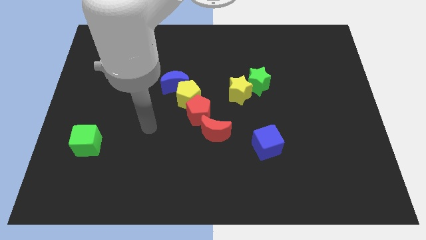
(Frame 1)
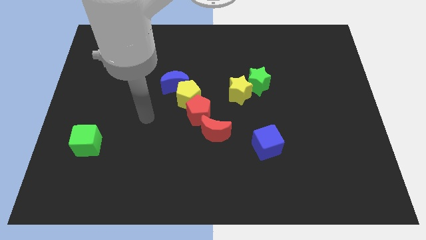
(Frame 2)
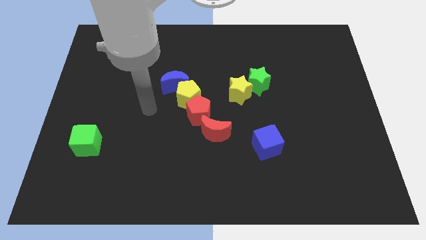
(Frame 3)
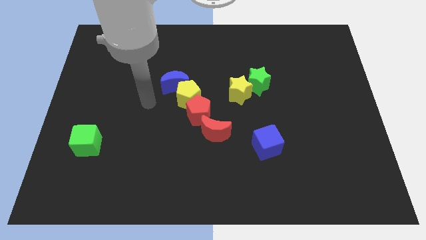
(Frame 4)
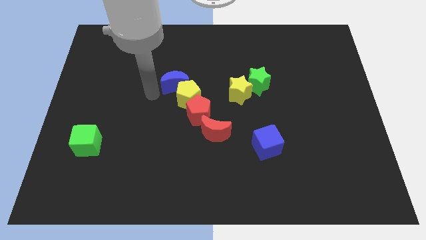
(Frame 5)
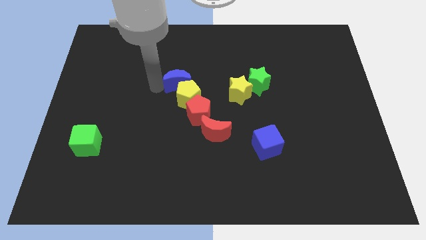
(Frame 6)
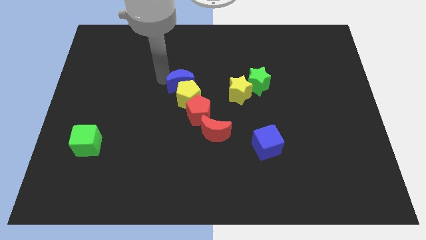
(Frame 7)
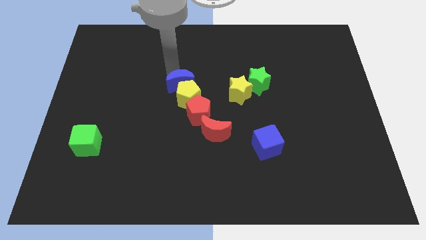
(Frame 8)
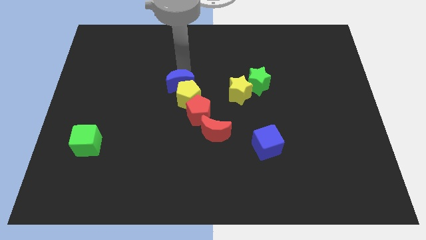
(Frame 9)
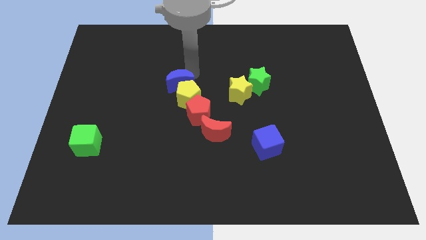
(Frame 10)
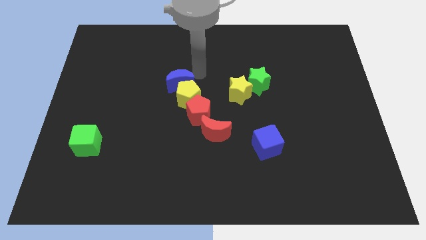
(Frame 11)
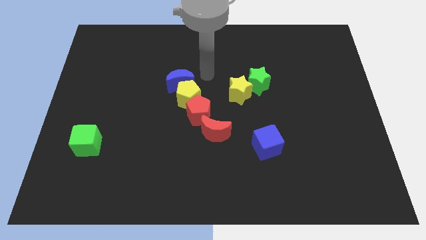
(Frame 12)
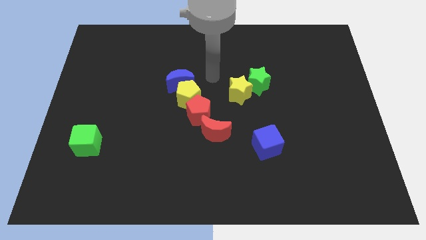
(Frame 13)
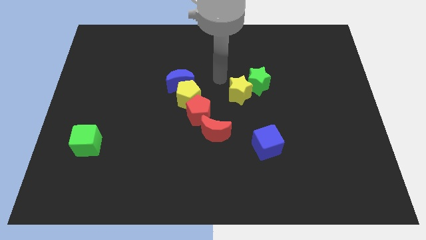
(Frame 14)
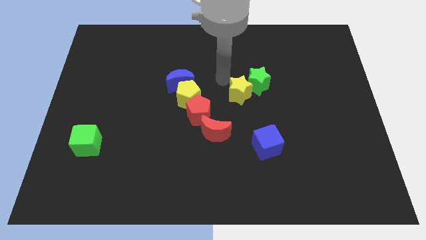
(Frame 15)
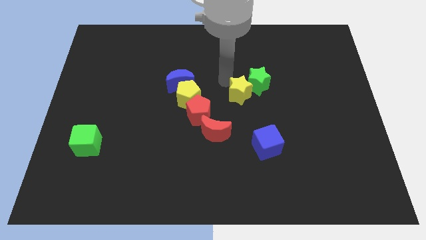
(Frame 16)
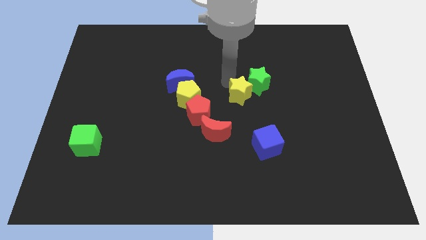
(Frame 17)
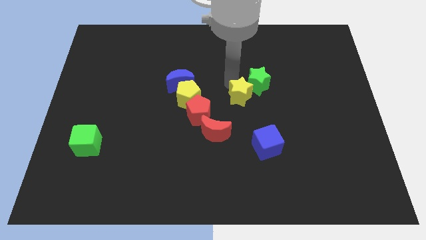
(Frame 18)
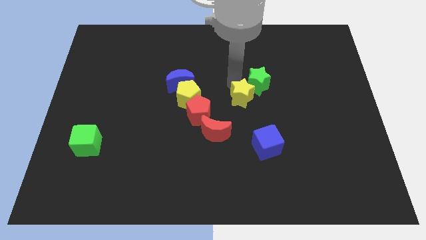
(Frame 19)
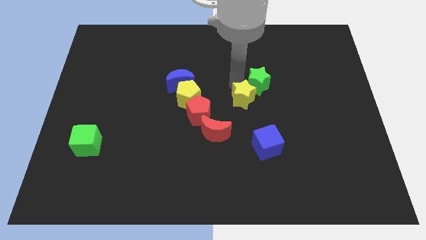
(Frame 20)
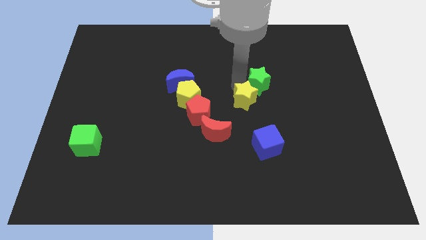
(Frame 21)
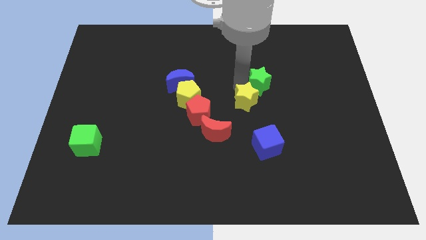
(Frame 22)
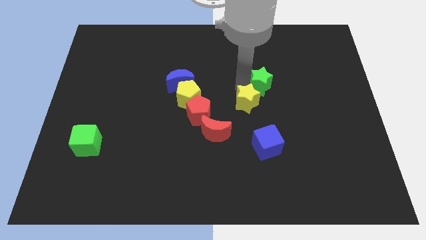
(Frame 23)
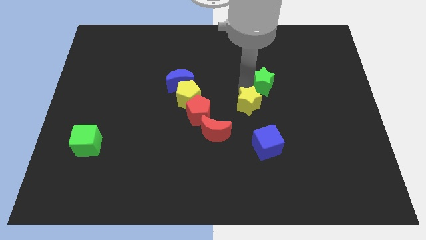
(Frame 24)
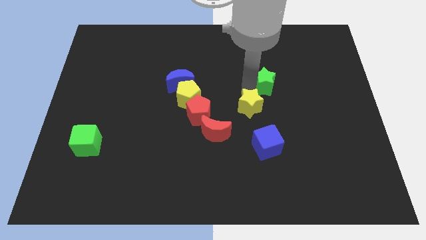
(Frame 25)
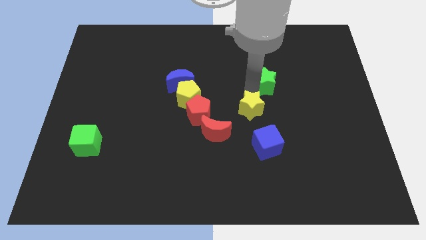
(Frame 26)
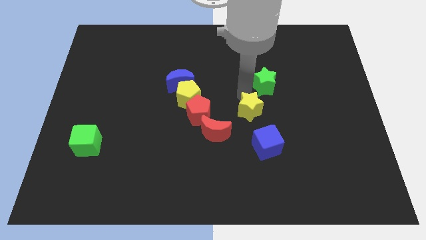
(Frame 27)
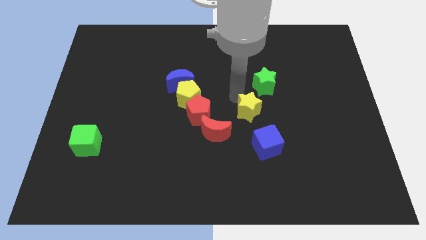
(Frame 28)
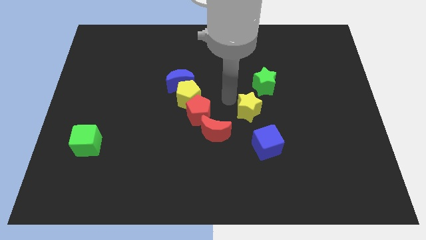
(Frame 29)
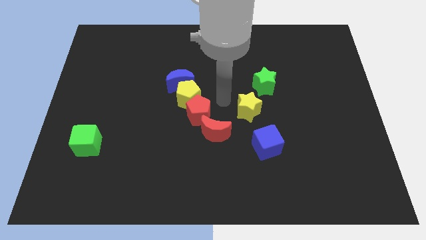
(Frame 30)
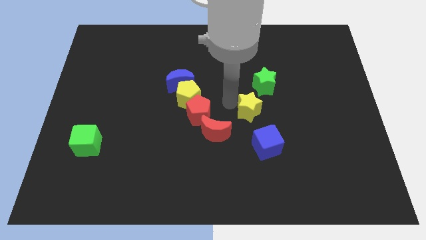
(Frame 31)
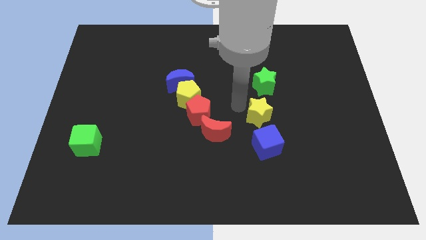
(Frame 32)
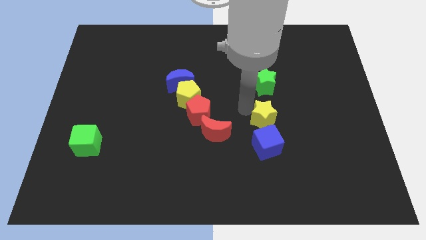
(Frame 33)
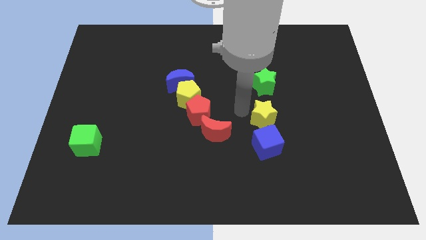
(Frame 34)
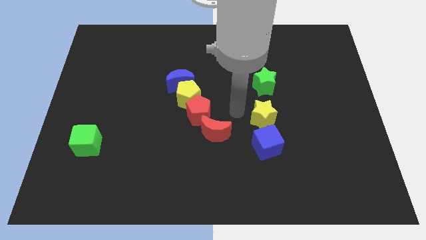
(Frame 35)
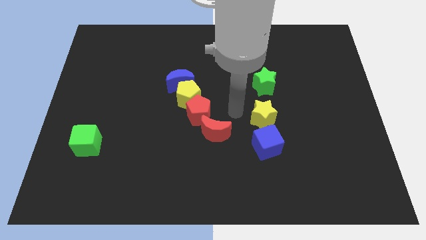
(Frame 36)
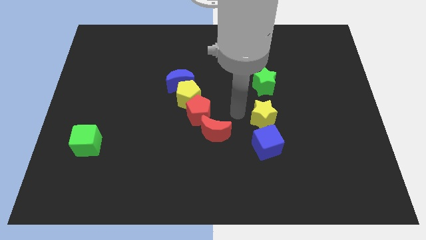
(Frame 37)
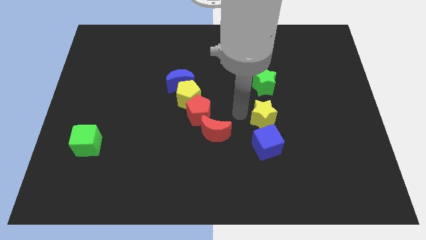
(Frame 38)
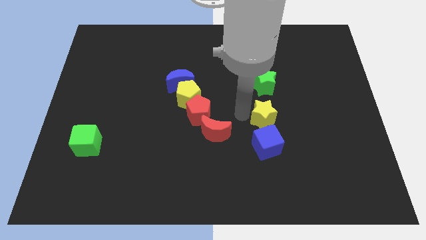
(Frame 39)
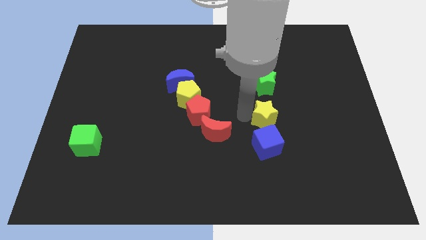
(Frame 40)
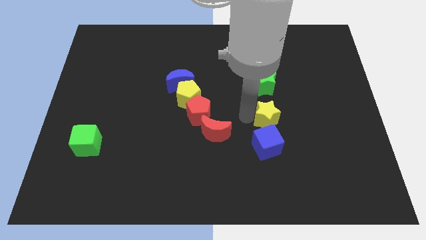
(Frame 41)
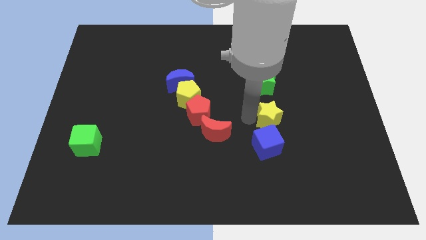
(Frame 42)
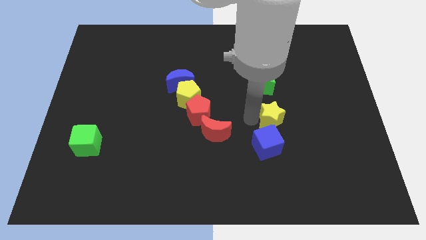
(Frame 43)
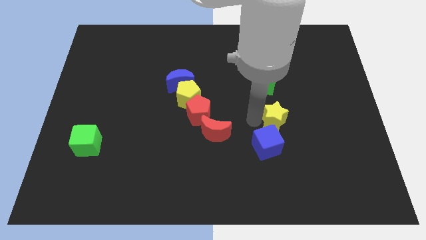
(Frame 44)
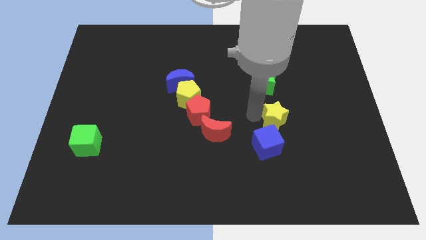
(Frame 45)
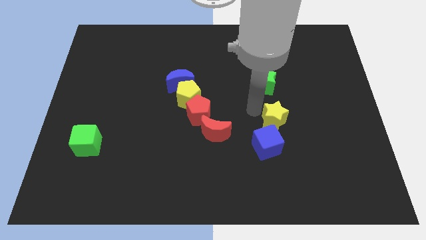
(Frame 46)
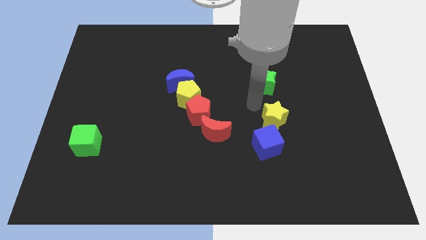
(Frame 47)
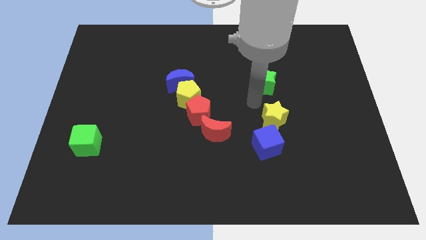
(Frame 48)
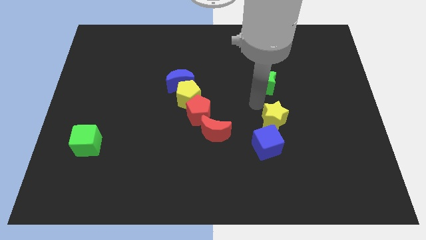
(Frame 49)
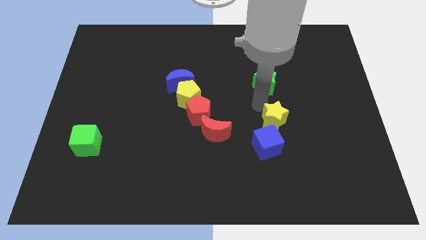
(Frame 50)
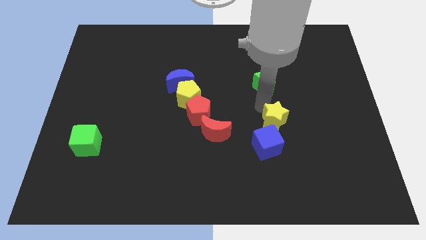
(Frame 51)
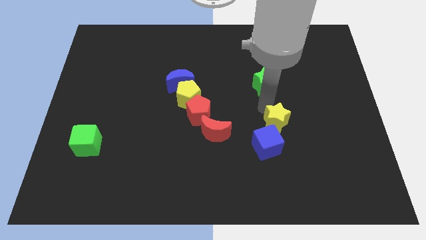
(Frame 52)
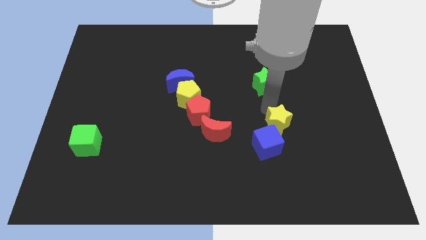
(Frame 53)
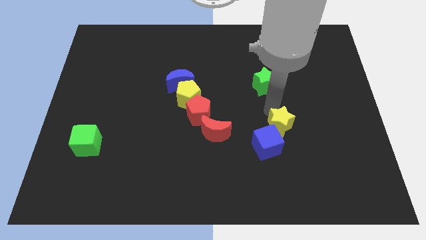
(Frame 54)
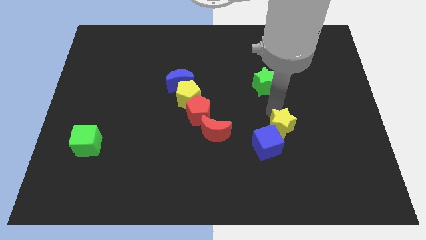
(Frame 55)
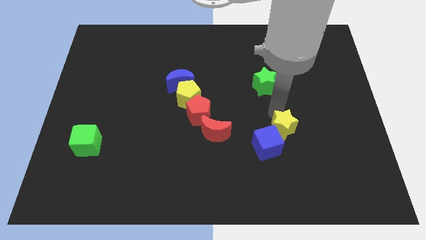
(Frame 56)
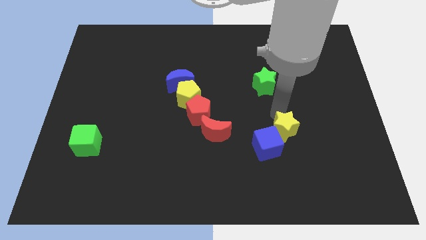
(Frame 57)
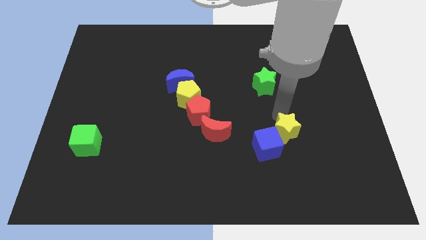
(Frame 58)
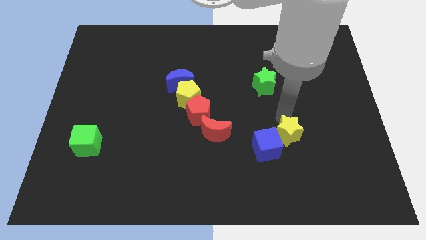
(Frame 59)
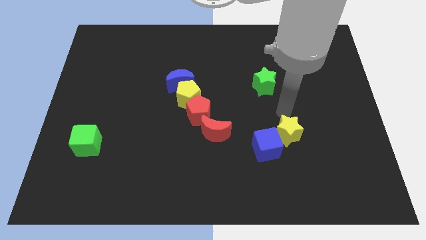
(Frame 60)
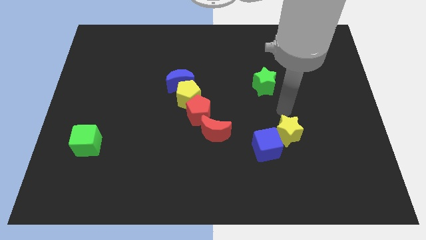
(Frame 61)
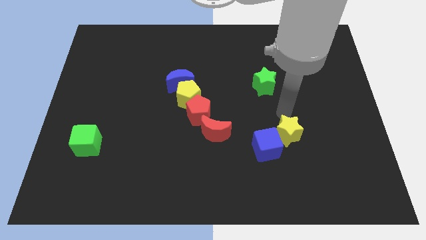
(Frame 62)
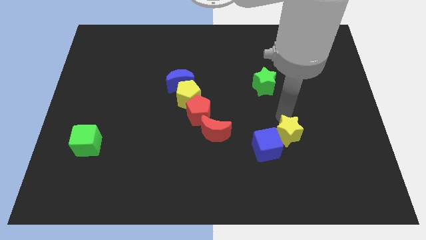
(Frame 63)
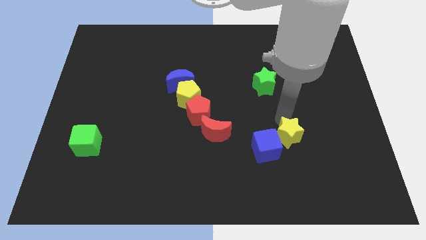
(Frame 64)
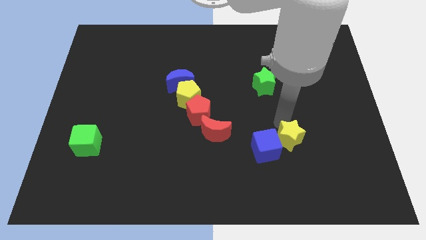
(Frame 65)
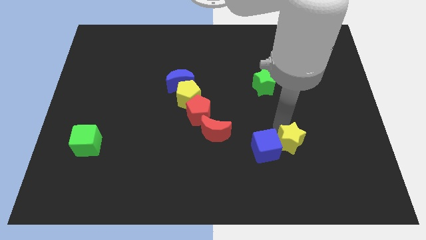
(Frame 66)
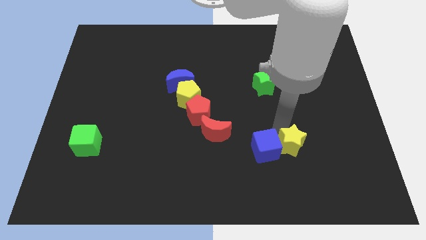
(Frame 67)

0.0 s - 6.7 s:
slide the yellow star to the bottom right of the blue cube

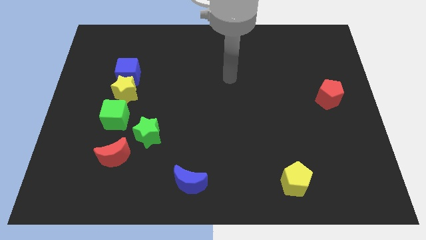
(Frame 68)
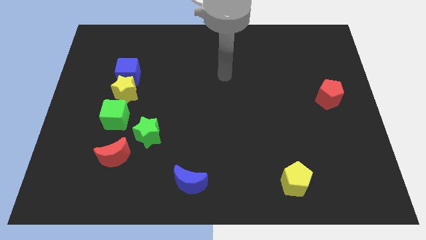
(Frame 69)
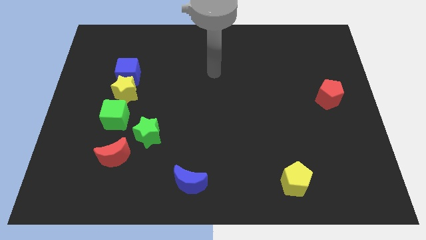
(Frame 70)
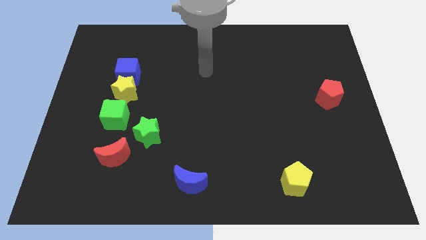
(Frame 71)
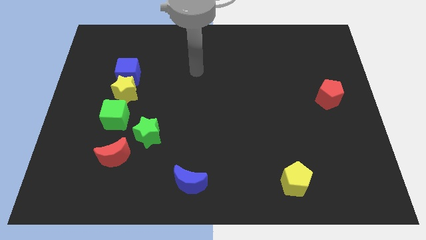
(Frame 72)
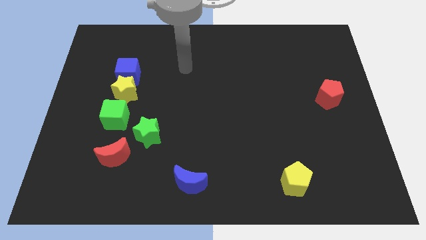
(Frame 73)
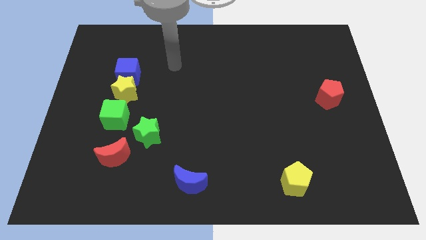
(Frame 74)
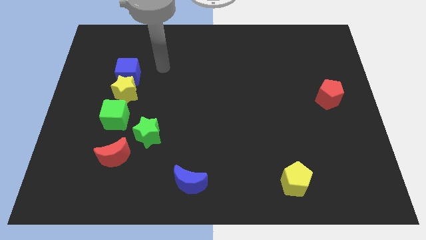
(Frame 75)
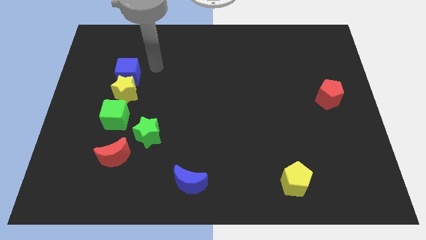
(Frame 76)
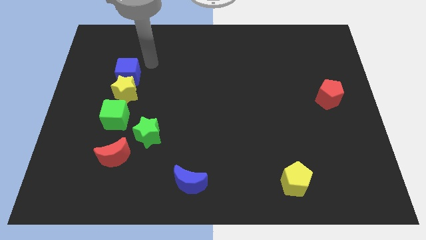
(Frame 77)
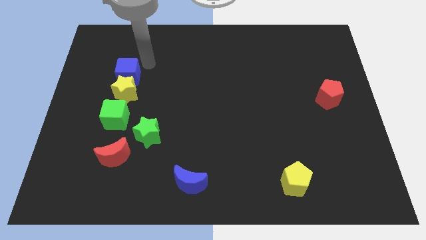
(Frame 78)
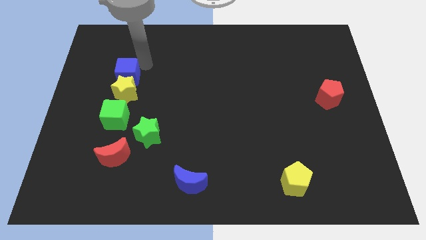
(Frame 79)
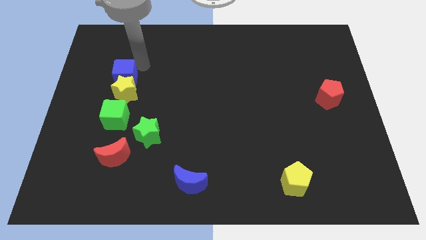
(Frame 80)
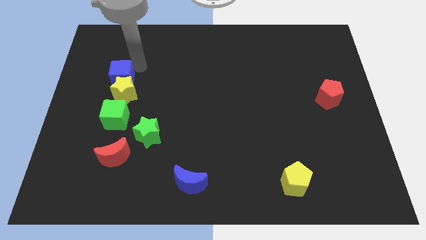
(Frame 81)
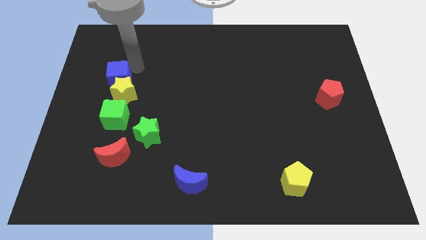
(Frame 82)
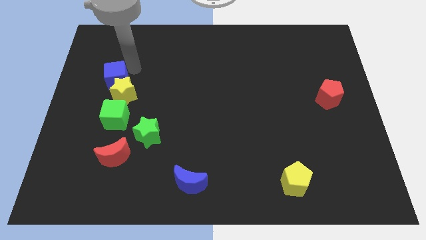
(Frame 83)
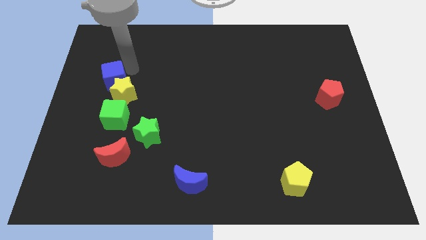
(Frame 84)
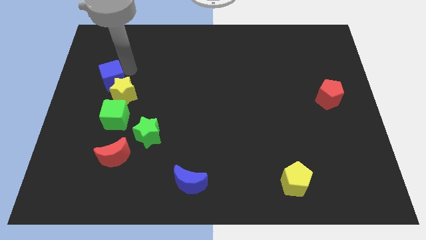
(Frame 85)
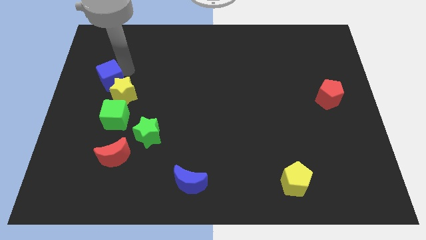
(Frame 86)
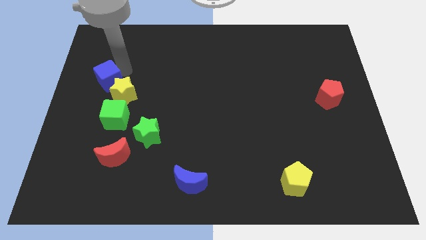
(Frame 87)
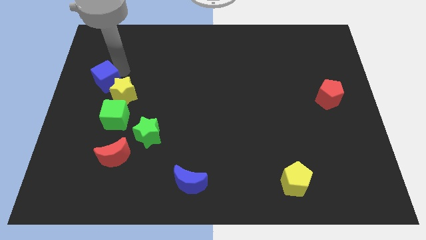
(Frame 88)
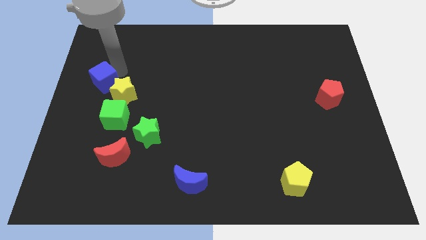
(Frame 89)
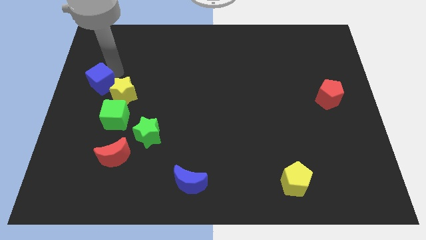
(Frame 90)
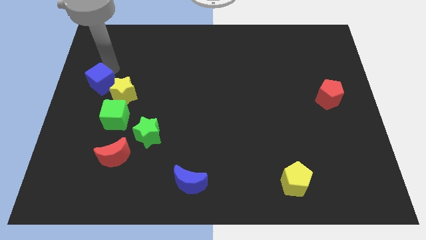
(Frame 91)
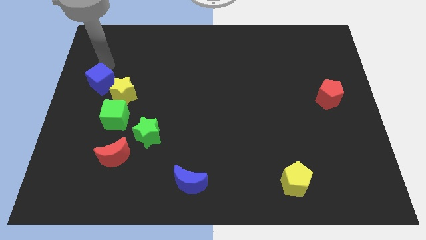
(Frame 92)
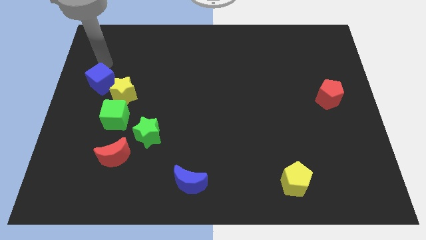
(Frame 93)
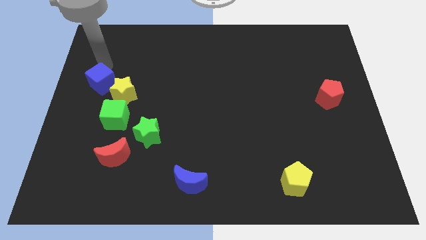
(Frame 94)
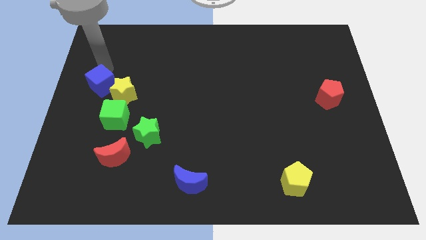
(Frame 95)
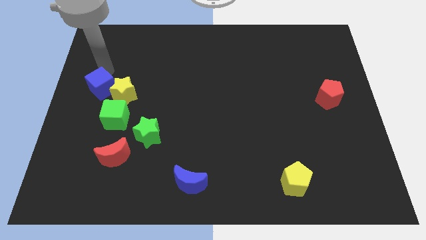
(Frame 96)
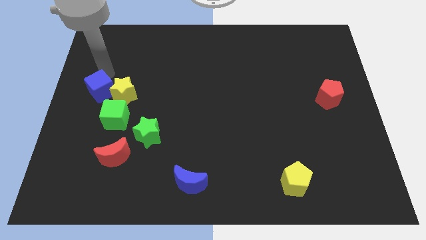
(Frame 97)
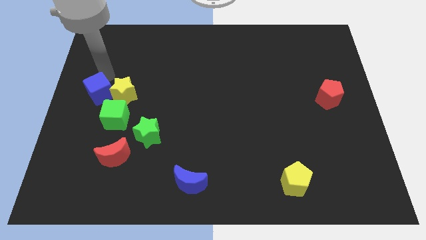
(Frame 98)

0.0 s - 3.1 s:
slide the blue cube to the bottom left of the yellow star
